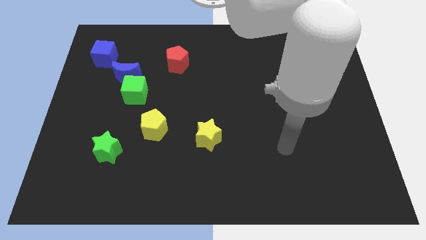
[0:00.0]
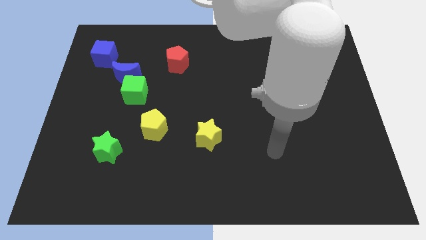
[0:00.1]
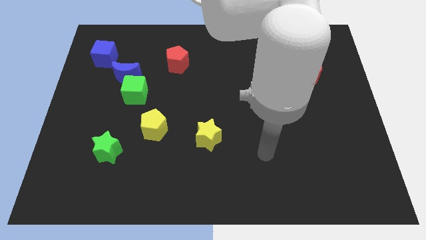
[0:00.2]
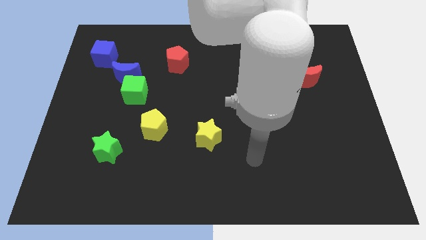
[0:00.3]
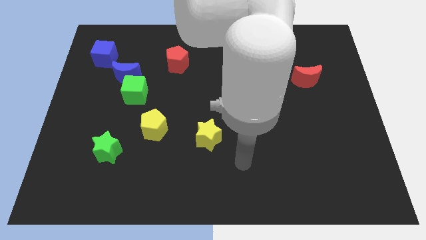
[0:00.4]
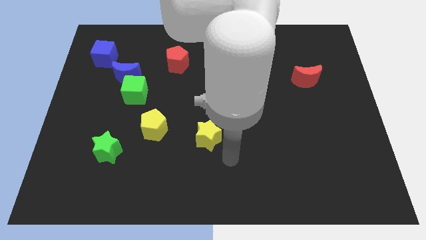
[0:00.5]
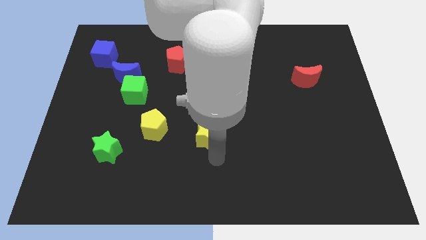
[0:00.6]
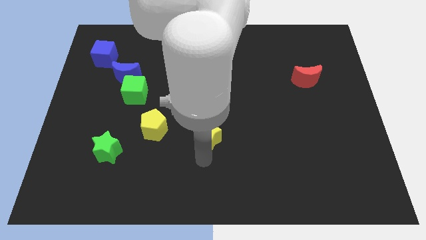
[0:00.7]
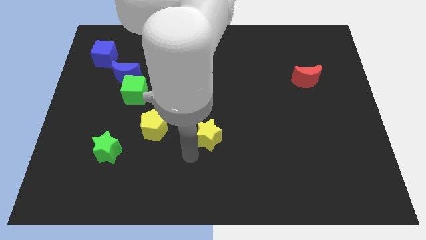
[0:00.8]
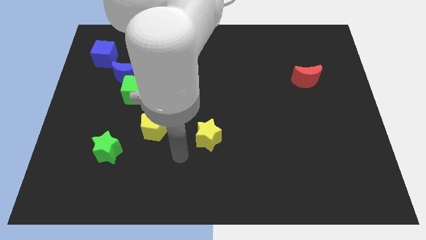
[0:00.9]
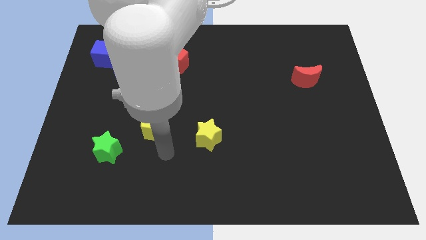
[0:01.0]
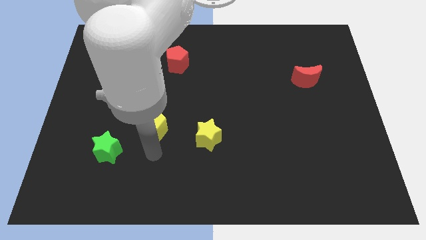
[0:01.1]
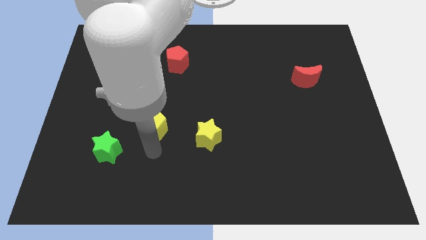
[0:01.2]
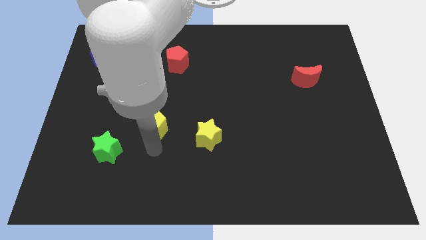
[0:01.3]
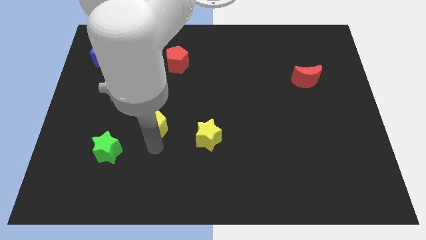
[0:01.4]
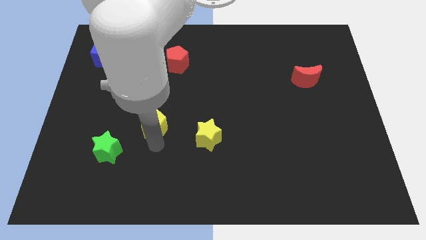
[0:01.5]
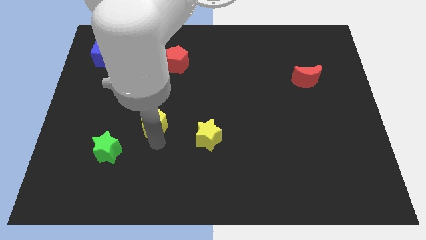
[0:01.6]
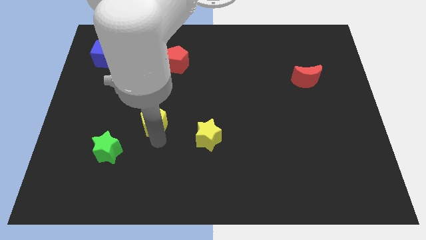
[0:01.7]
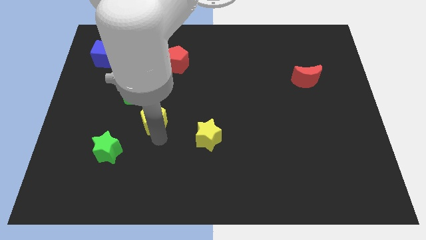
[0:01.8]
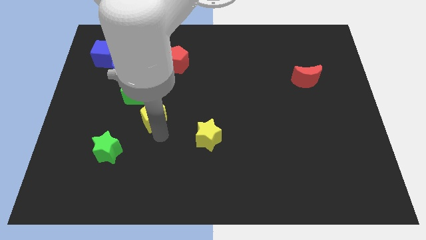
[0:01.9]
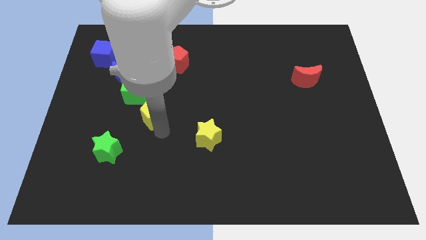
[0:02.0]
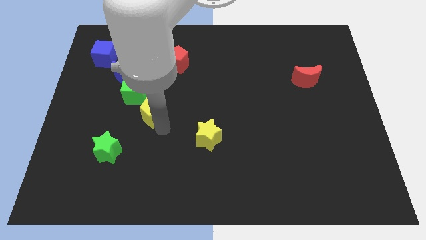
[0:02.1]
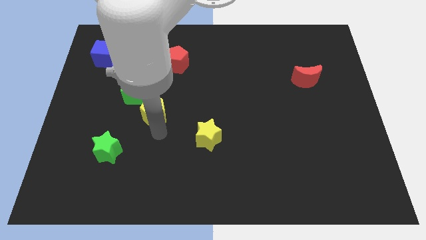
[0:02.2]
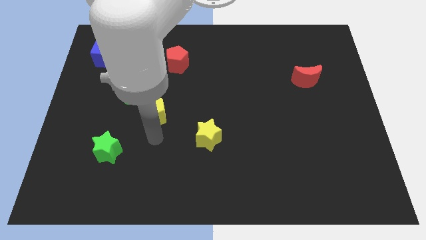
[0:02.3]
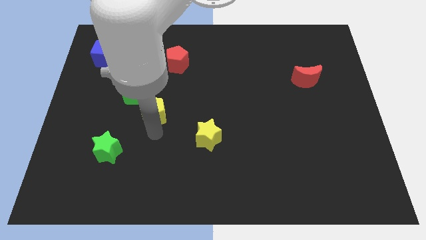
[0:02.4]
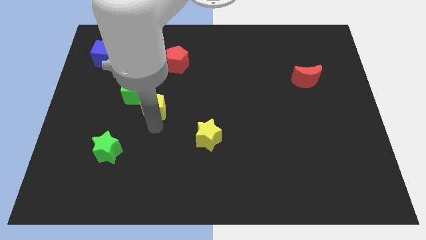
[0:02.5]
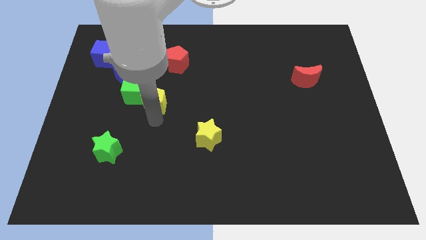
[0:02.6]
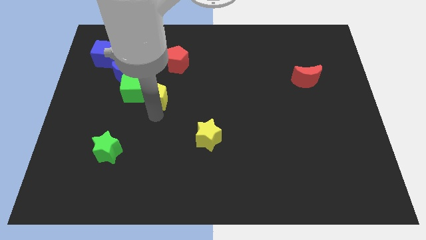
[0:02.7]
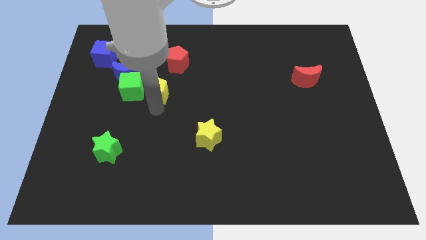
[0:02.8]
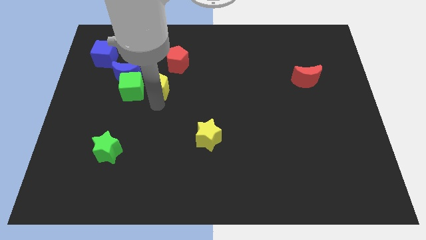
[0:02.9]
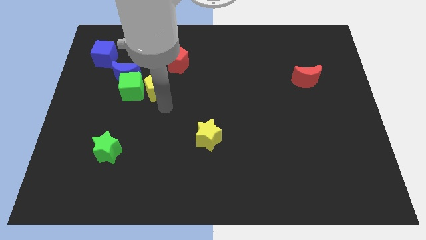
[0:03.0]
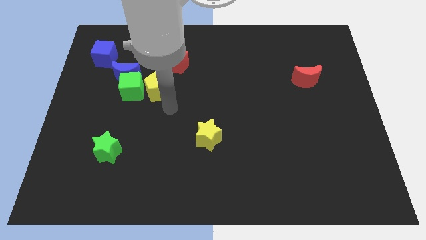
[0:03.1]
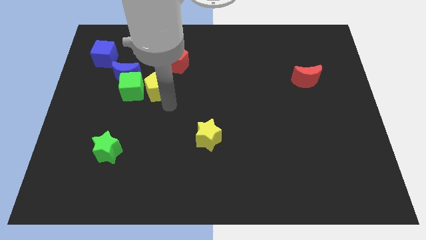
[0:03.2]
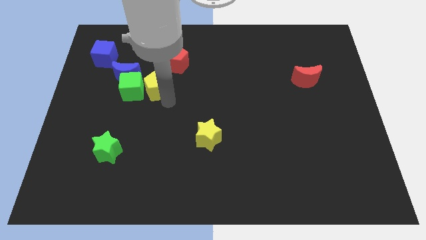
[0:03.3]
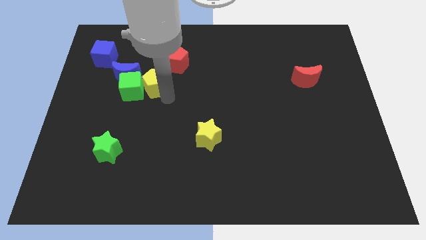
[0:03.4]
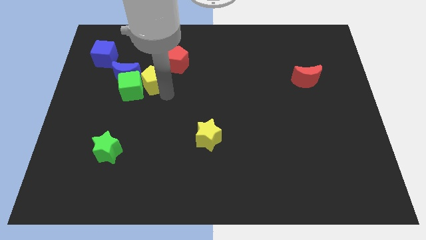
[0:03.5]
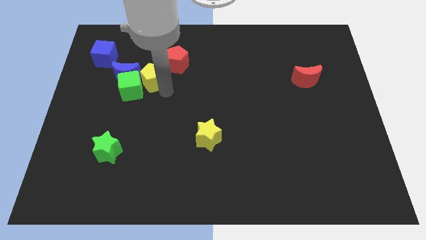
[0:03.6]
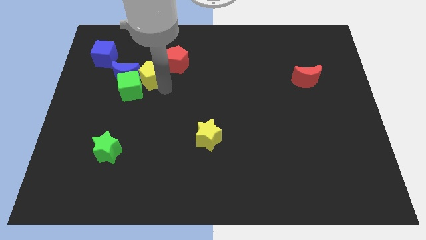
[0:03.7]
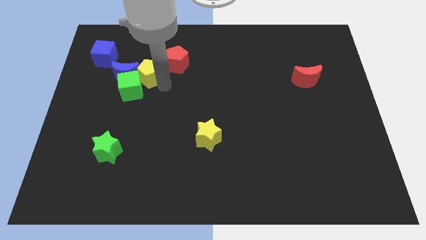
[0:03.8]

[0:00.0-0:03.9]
push the yellow pentagon to the top of the green cube

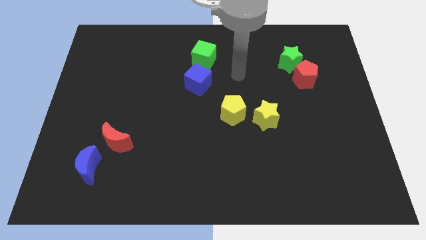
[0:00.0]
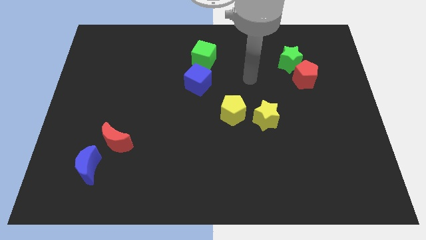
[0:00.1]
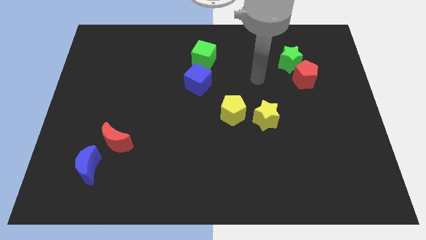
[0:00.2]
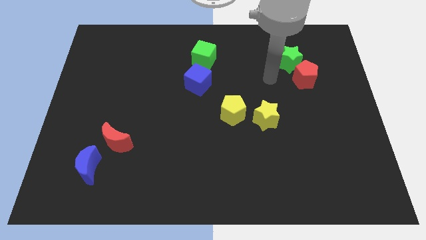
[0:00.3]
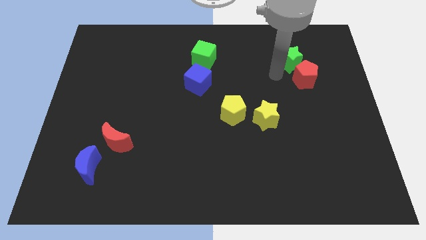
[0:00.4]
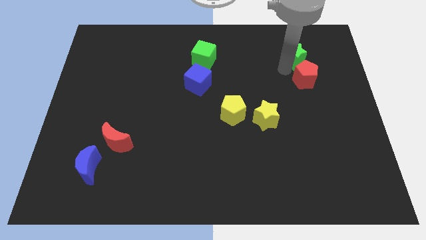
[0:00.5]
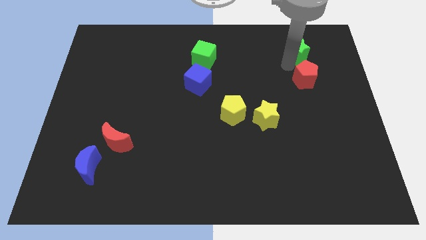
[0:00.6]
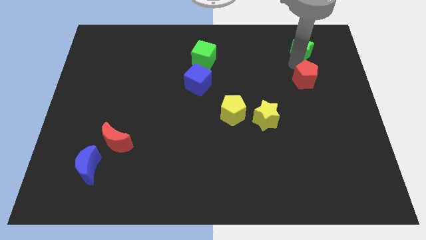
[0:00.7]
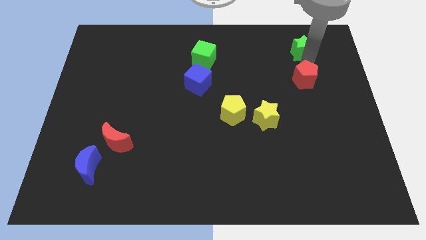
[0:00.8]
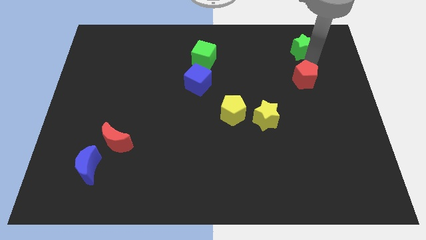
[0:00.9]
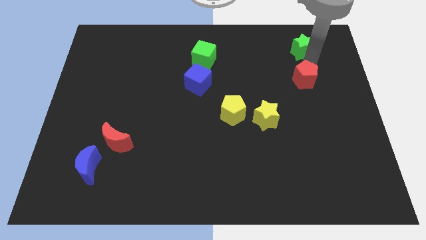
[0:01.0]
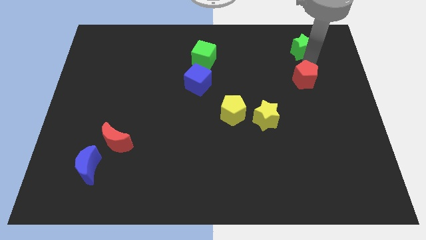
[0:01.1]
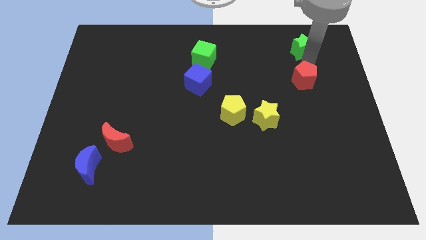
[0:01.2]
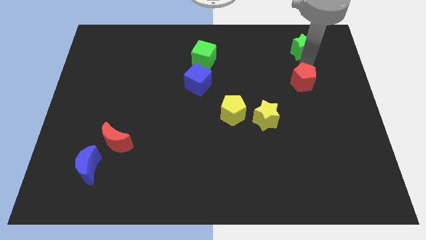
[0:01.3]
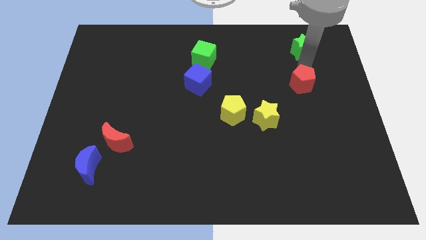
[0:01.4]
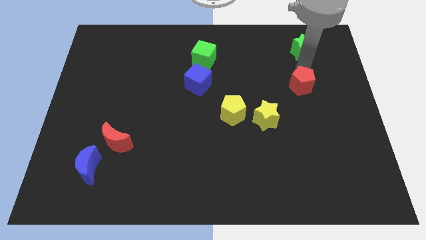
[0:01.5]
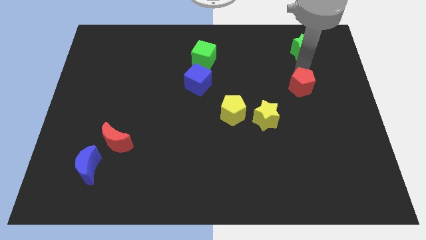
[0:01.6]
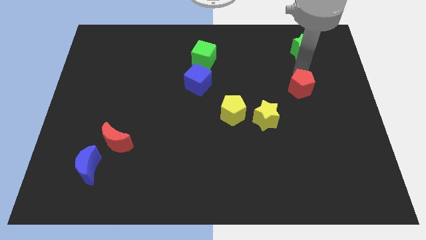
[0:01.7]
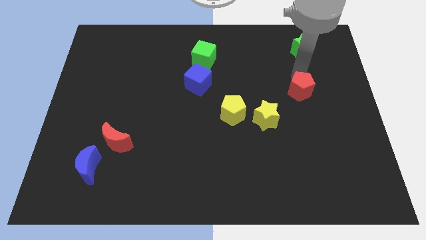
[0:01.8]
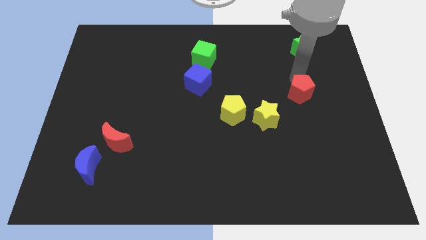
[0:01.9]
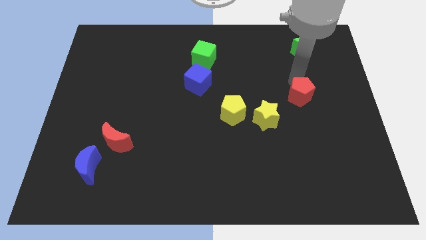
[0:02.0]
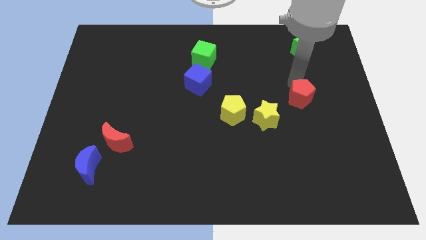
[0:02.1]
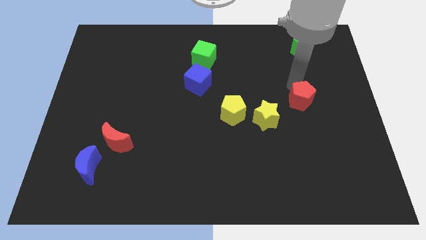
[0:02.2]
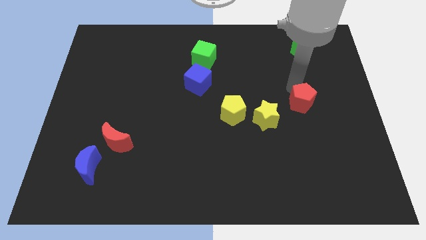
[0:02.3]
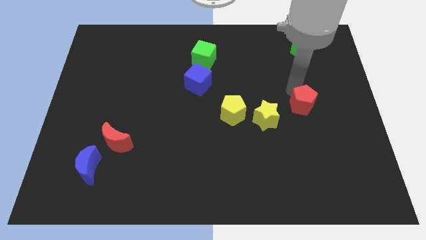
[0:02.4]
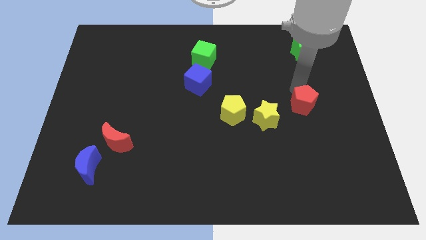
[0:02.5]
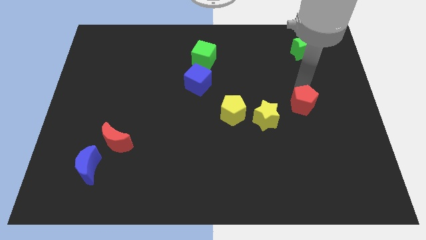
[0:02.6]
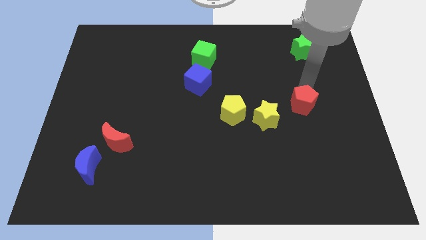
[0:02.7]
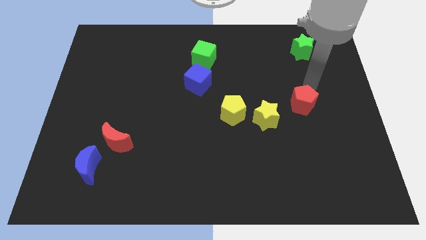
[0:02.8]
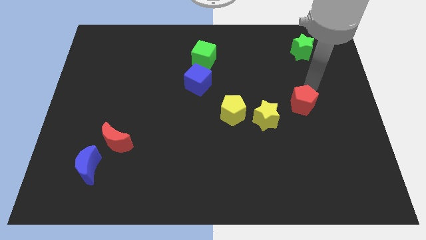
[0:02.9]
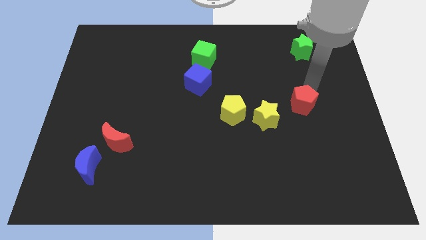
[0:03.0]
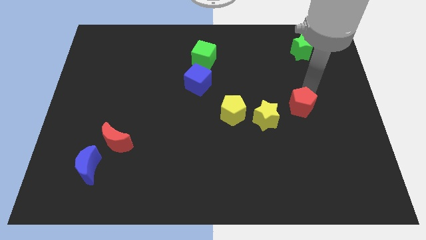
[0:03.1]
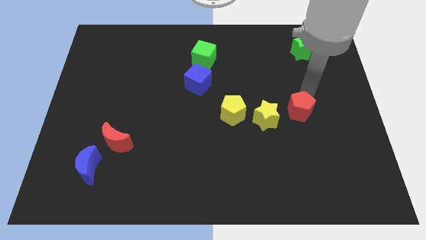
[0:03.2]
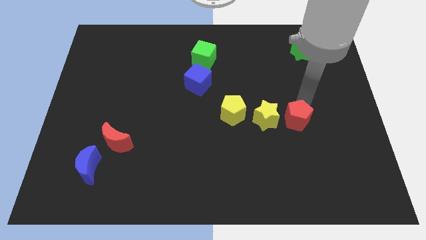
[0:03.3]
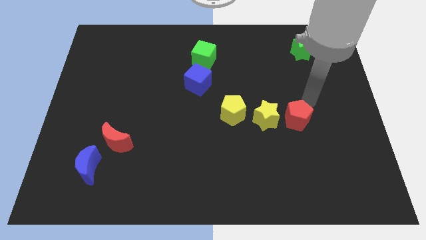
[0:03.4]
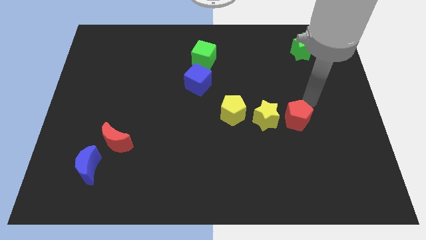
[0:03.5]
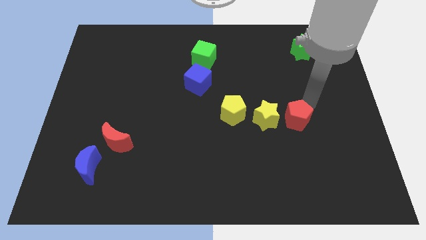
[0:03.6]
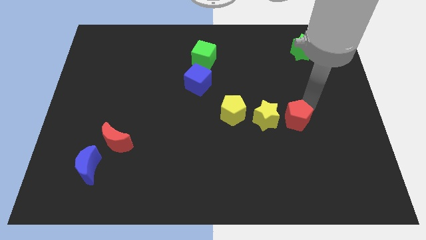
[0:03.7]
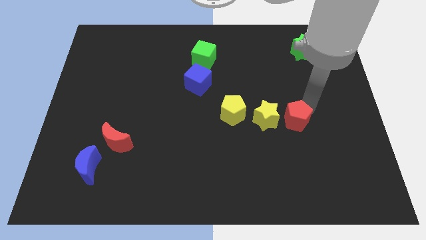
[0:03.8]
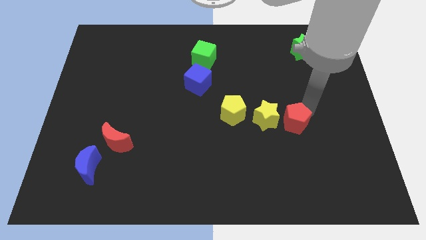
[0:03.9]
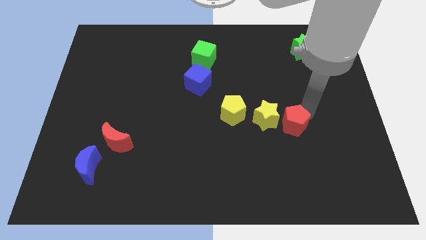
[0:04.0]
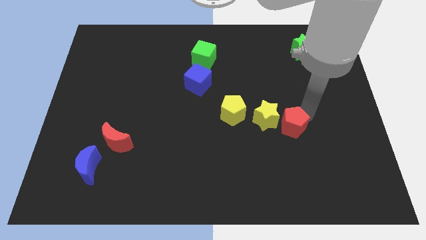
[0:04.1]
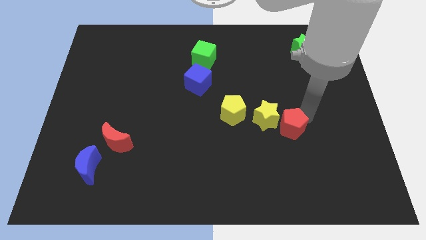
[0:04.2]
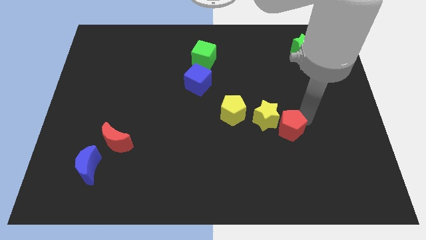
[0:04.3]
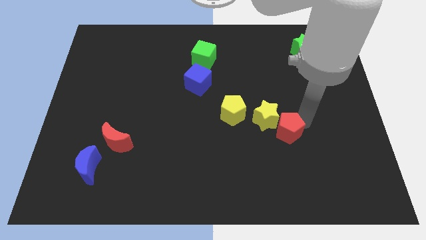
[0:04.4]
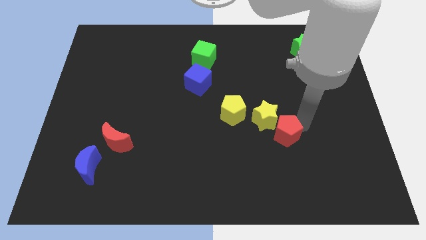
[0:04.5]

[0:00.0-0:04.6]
slide the red pentagon to the bottom of the yellow star
